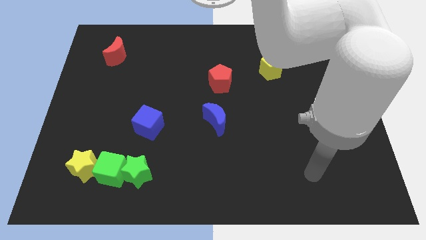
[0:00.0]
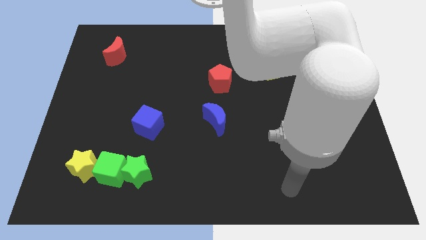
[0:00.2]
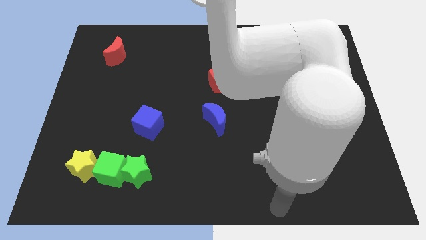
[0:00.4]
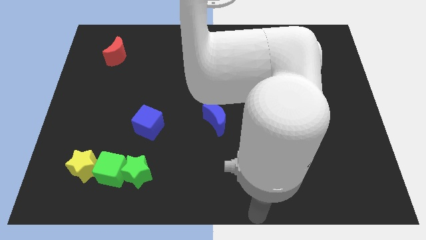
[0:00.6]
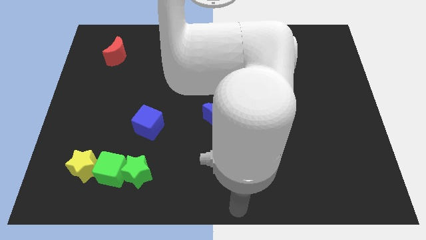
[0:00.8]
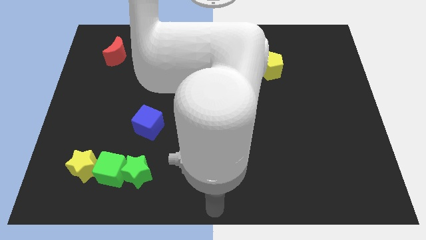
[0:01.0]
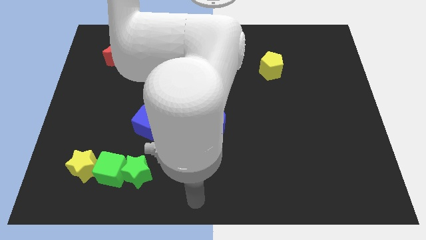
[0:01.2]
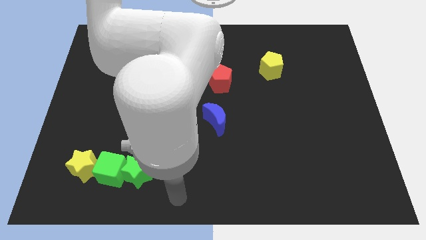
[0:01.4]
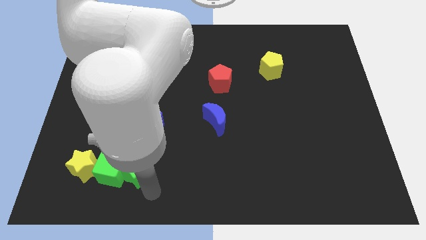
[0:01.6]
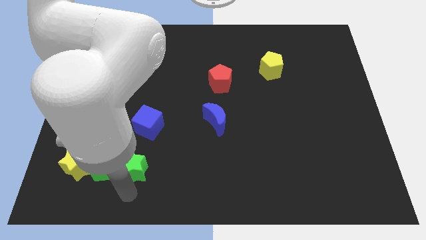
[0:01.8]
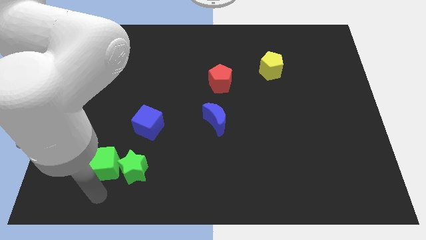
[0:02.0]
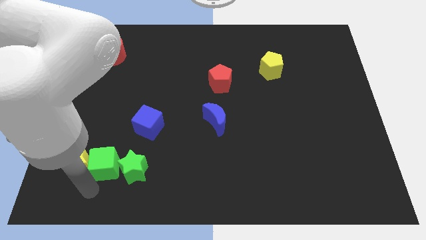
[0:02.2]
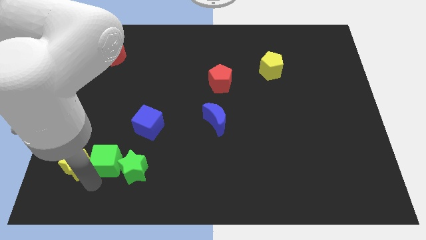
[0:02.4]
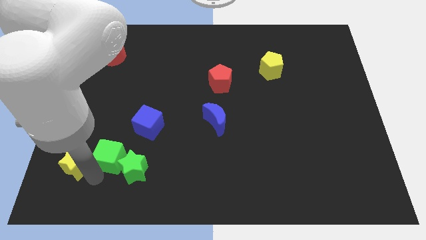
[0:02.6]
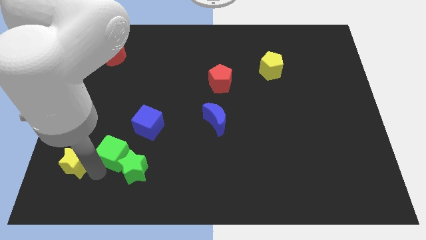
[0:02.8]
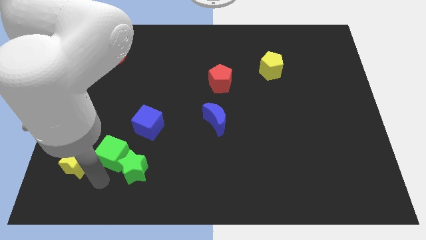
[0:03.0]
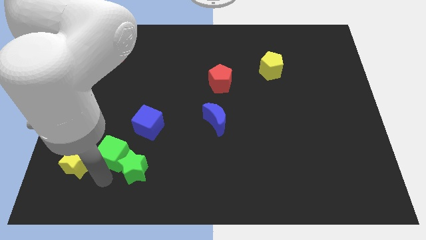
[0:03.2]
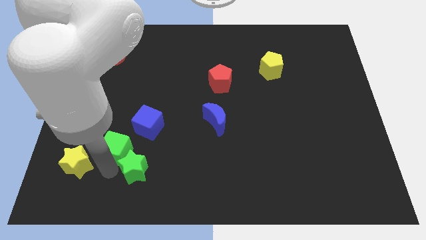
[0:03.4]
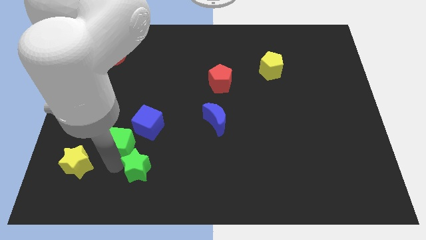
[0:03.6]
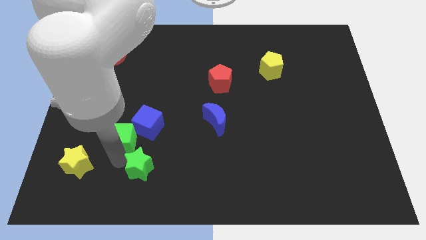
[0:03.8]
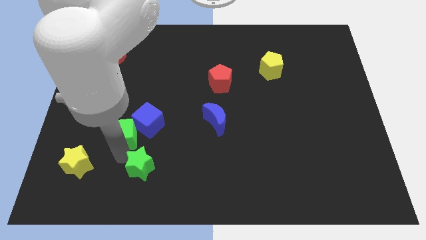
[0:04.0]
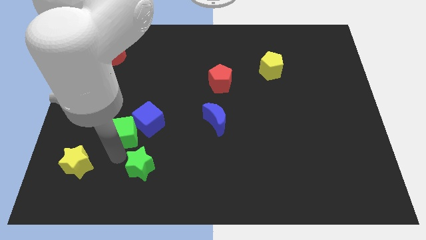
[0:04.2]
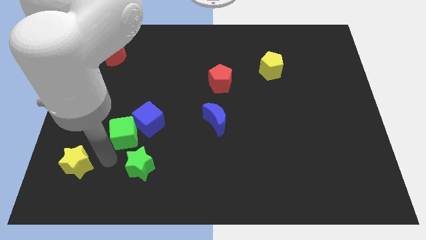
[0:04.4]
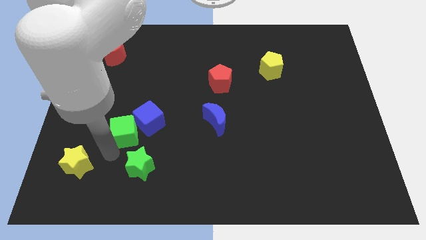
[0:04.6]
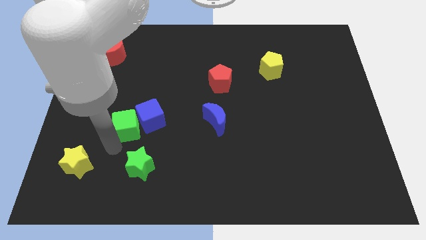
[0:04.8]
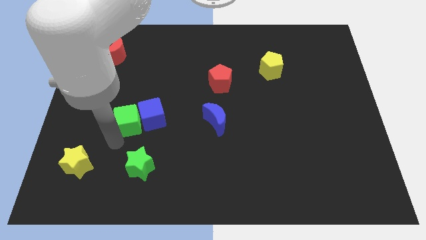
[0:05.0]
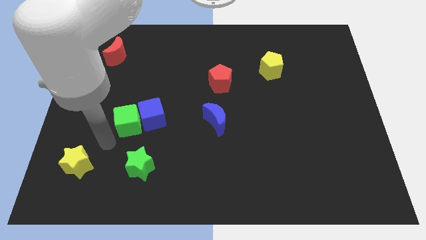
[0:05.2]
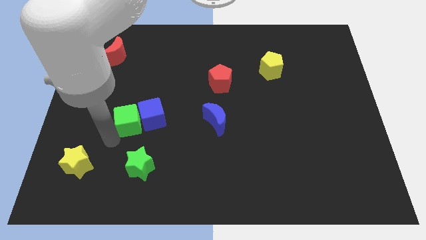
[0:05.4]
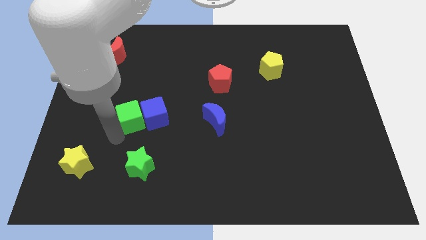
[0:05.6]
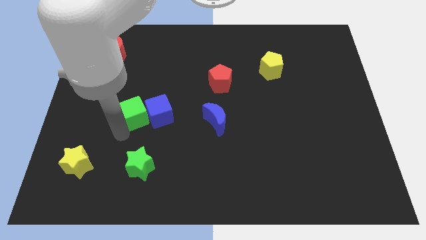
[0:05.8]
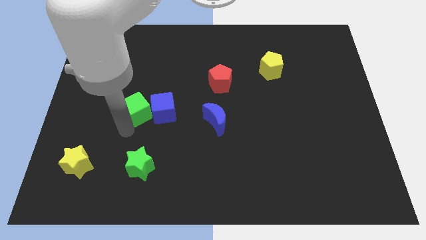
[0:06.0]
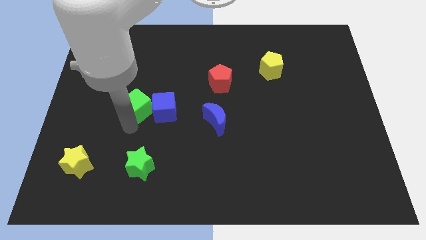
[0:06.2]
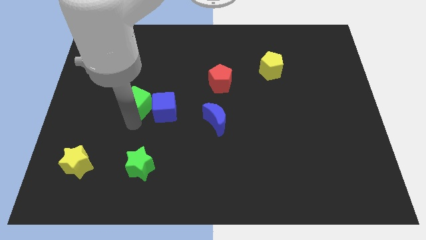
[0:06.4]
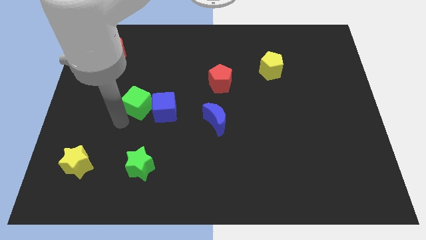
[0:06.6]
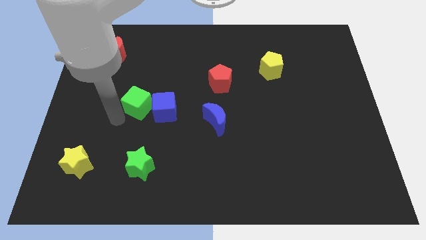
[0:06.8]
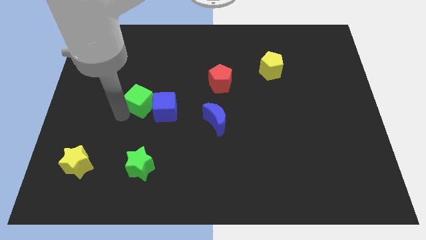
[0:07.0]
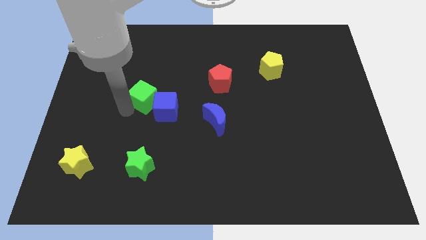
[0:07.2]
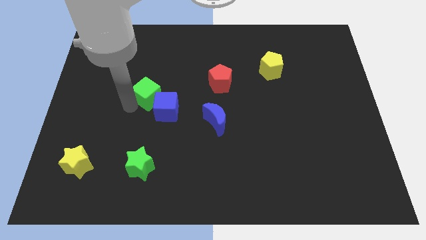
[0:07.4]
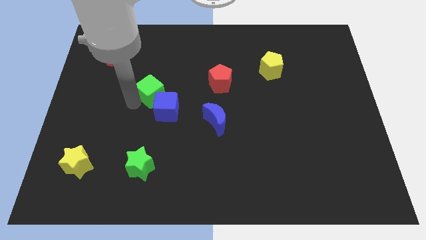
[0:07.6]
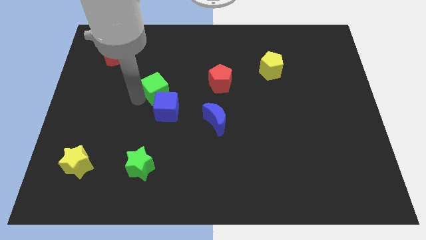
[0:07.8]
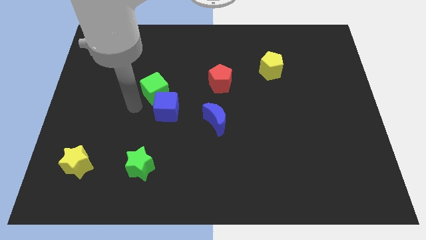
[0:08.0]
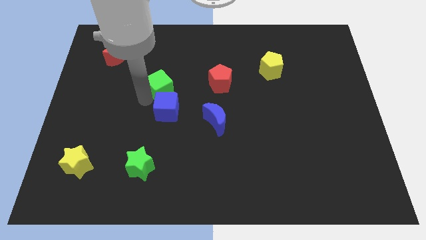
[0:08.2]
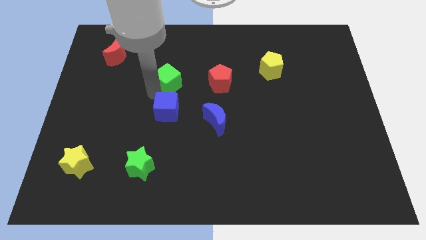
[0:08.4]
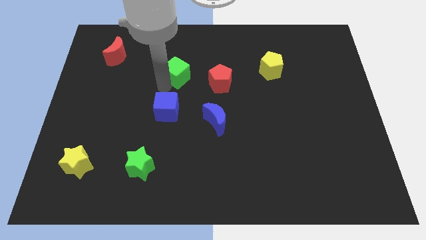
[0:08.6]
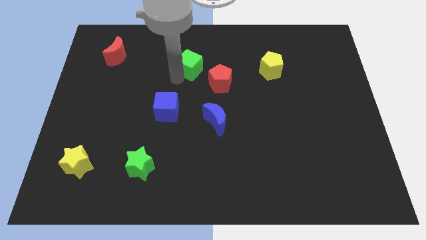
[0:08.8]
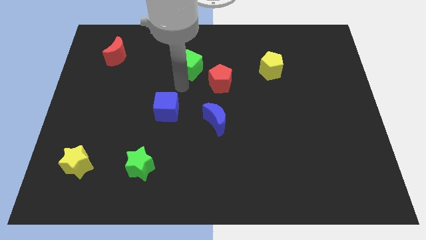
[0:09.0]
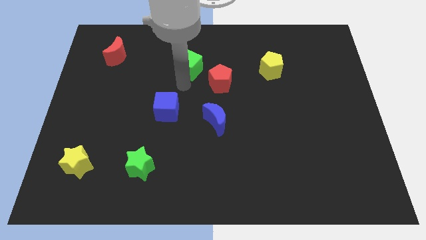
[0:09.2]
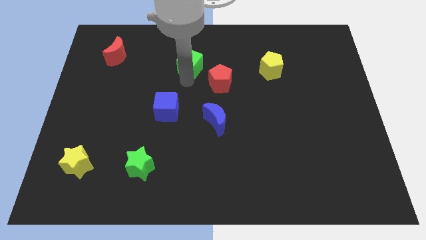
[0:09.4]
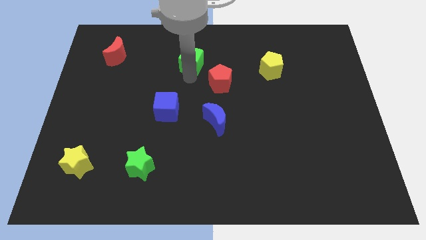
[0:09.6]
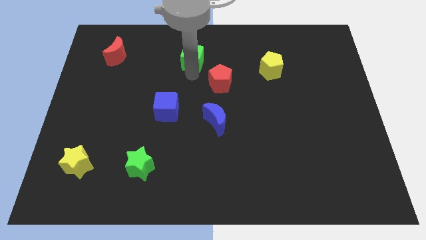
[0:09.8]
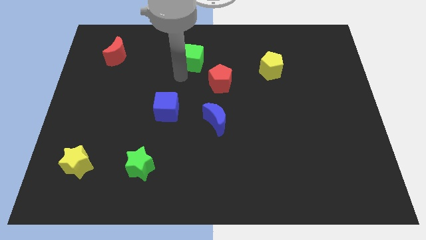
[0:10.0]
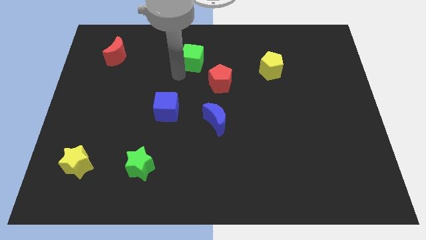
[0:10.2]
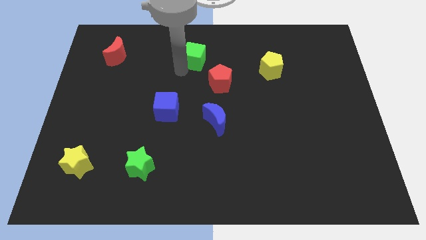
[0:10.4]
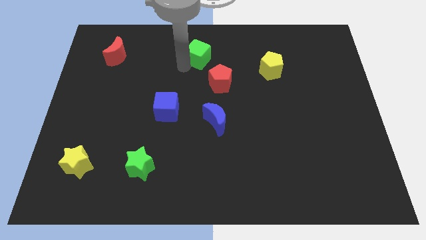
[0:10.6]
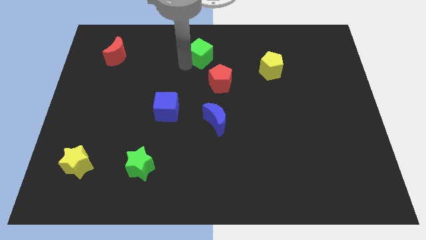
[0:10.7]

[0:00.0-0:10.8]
move the green cube to the top side

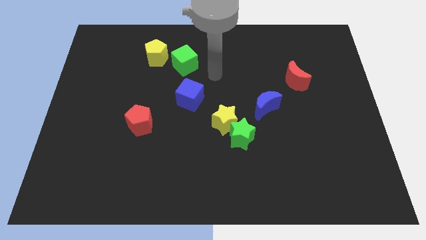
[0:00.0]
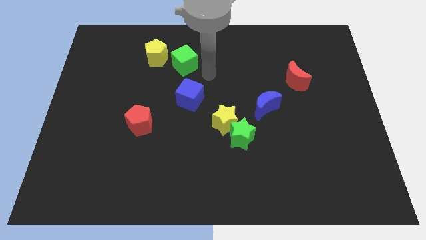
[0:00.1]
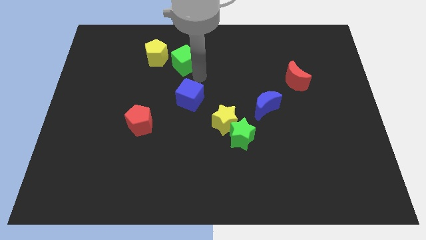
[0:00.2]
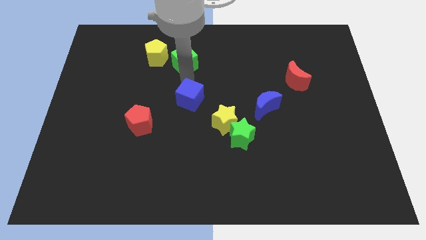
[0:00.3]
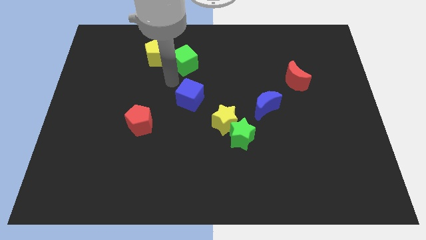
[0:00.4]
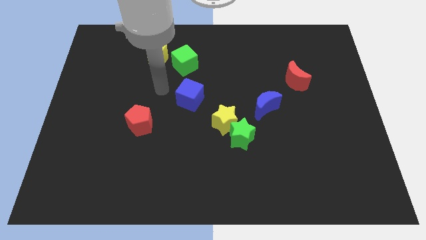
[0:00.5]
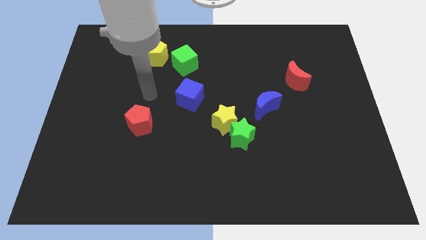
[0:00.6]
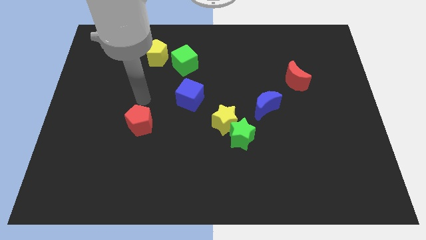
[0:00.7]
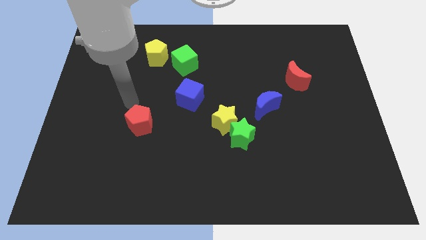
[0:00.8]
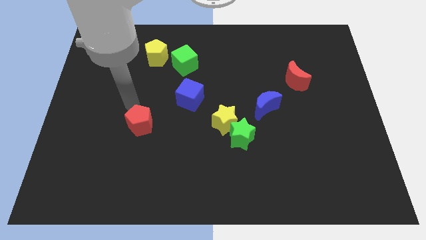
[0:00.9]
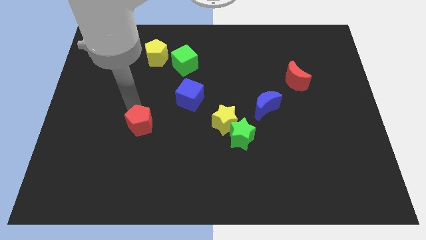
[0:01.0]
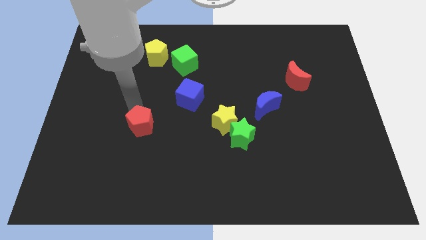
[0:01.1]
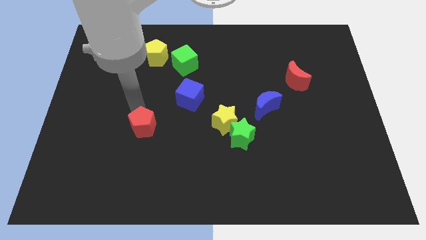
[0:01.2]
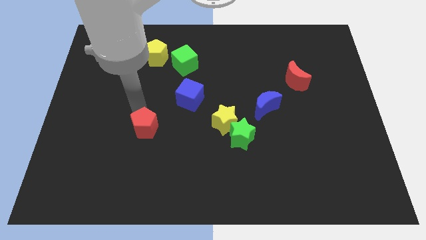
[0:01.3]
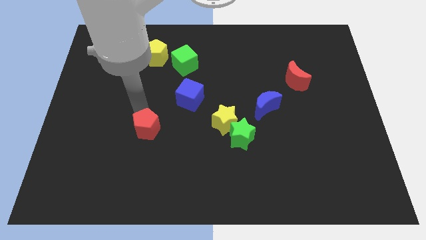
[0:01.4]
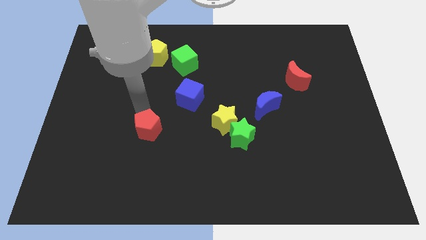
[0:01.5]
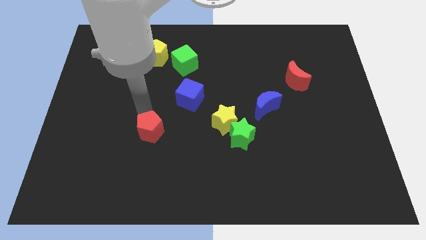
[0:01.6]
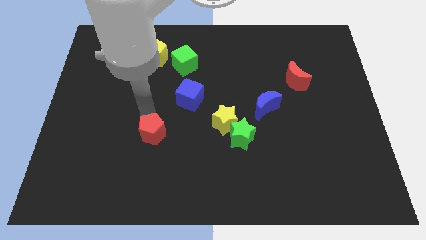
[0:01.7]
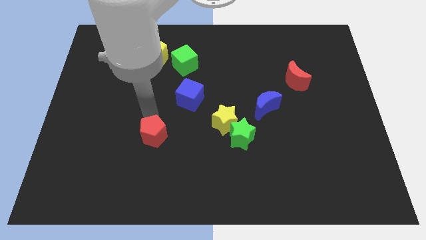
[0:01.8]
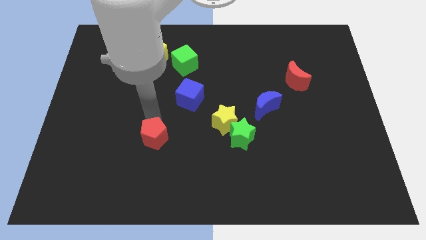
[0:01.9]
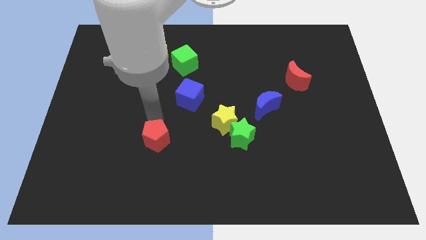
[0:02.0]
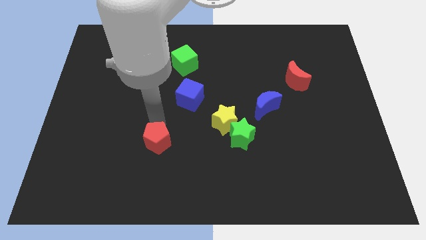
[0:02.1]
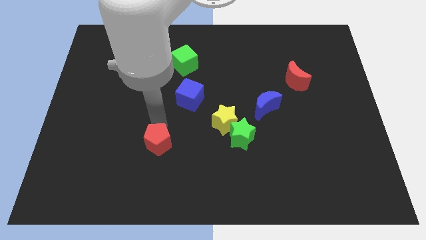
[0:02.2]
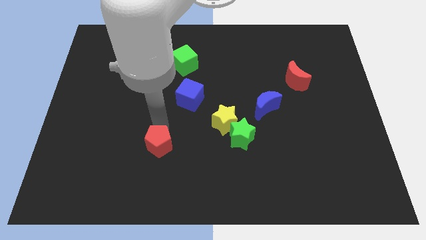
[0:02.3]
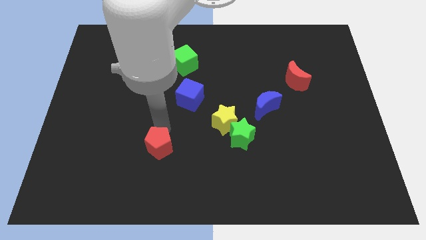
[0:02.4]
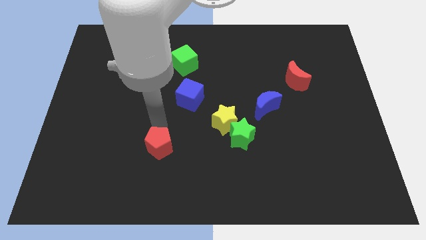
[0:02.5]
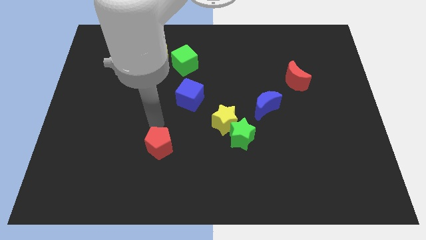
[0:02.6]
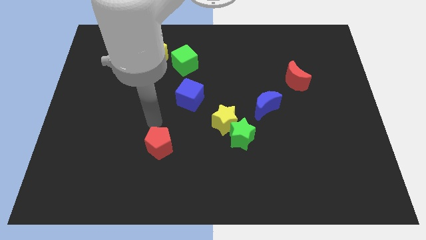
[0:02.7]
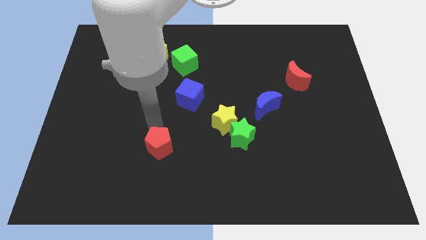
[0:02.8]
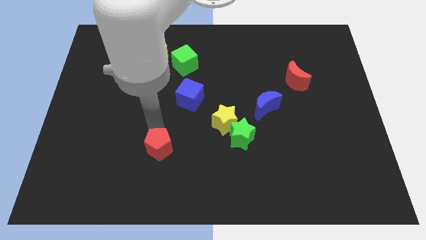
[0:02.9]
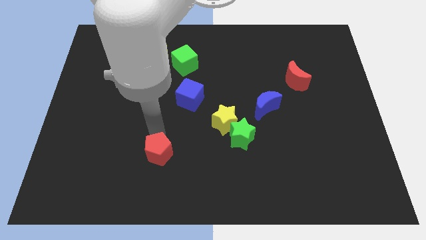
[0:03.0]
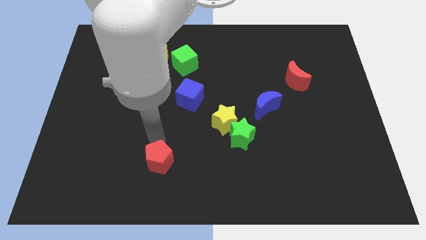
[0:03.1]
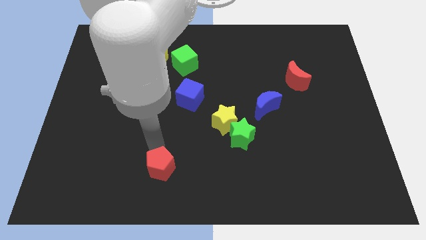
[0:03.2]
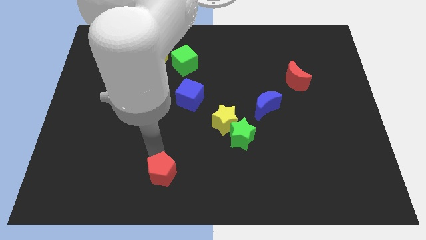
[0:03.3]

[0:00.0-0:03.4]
push the red pentagon to the bottom side
